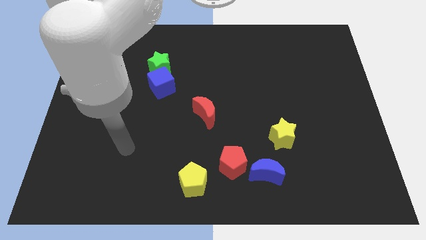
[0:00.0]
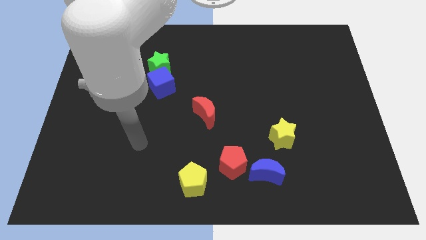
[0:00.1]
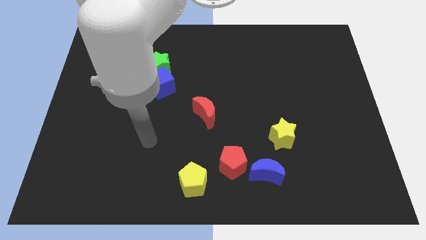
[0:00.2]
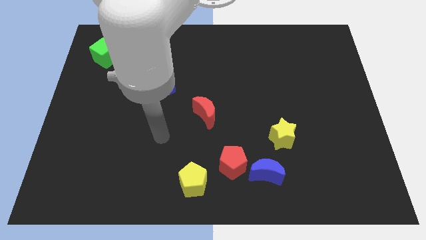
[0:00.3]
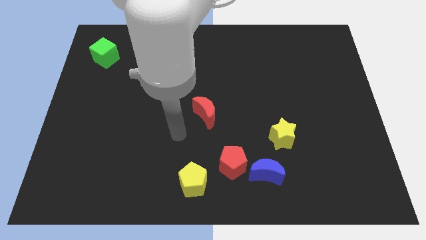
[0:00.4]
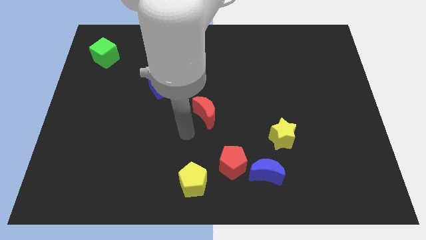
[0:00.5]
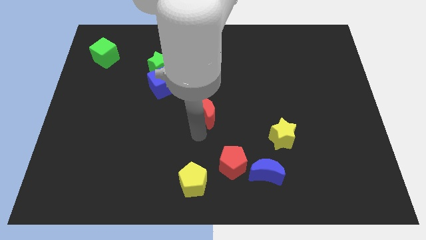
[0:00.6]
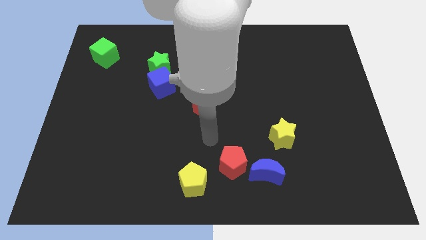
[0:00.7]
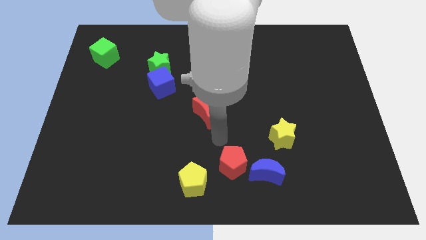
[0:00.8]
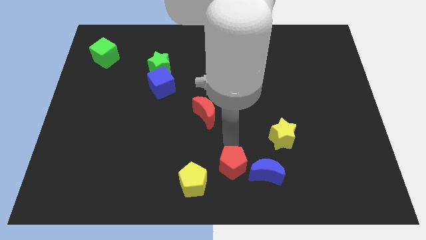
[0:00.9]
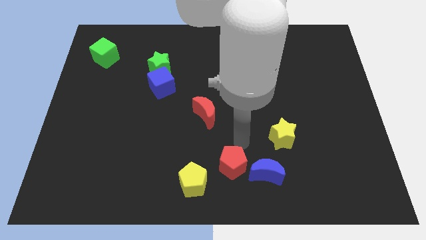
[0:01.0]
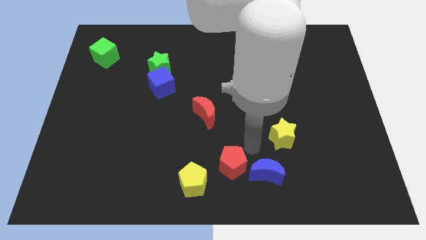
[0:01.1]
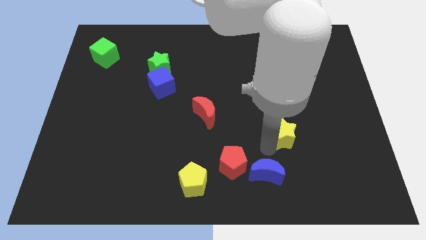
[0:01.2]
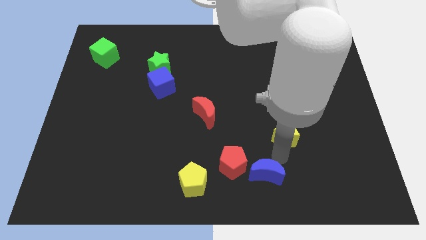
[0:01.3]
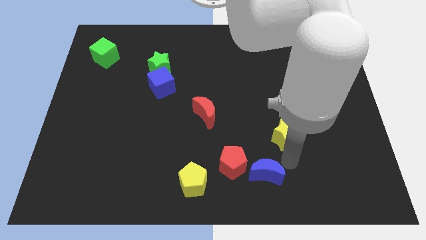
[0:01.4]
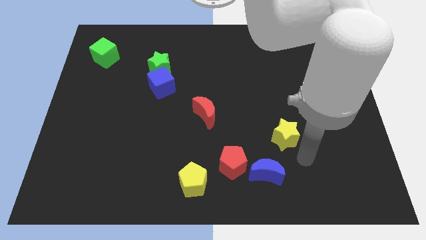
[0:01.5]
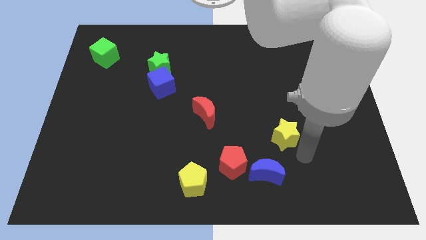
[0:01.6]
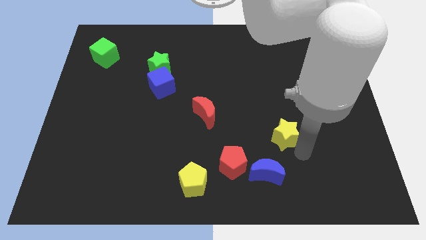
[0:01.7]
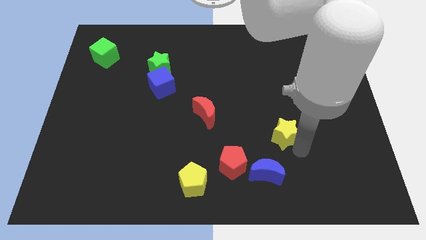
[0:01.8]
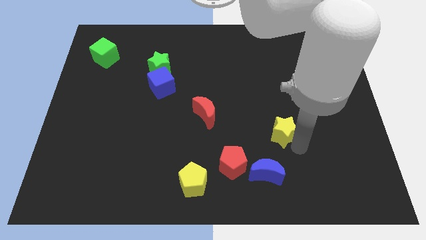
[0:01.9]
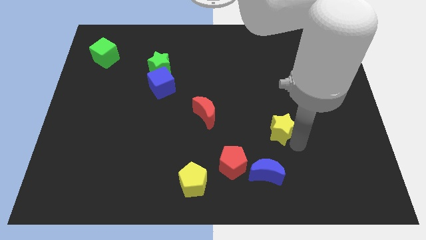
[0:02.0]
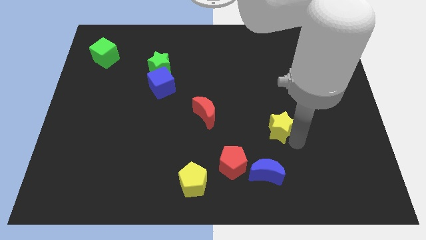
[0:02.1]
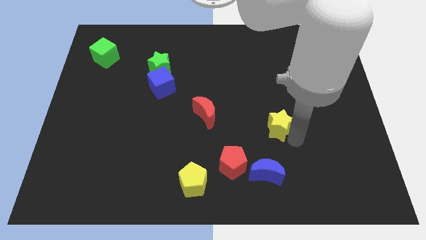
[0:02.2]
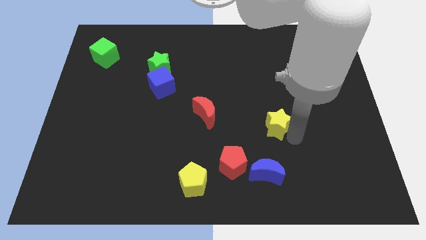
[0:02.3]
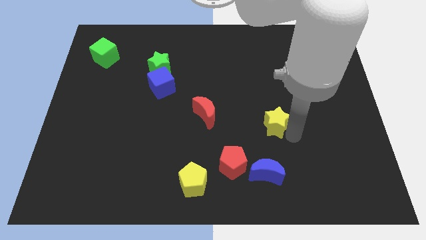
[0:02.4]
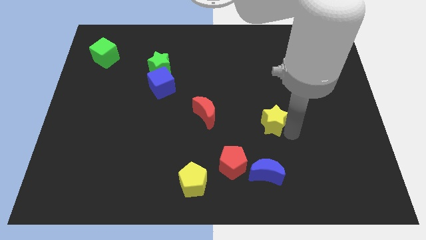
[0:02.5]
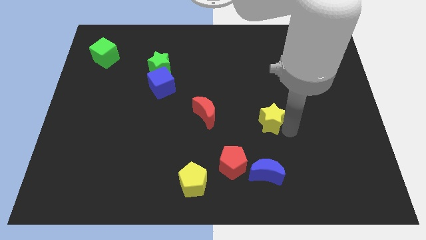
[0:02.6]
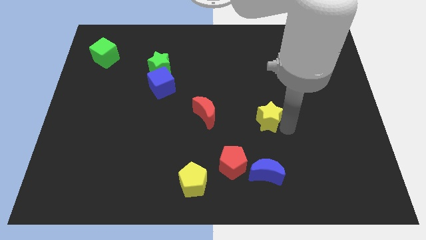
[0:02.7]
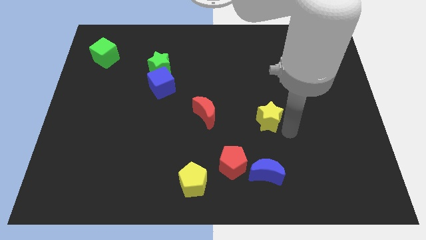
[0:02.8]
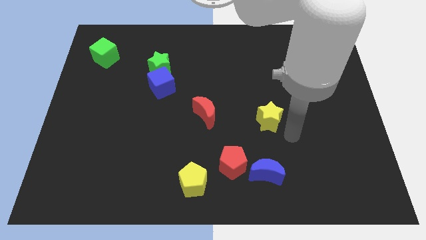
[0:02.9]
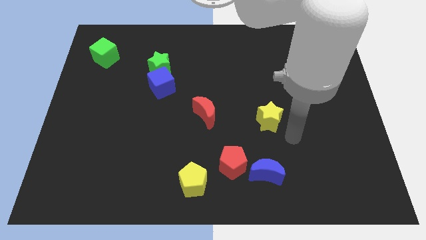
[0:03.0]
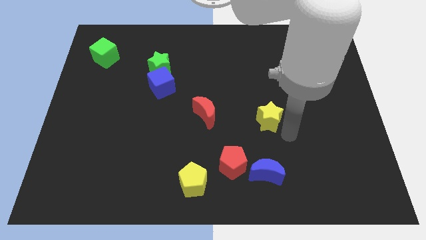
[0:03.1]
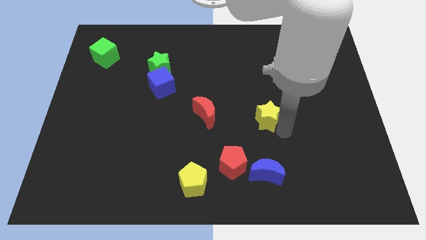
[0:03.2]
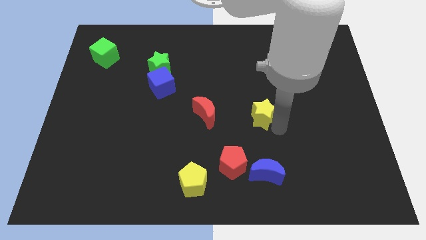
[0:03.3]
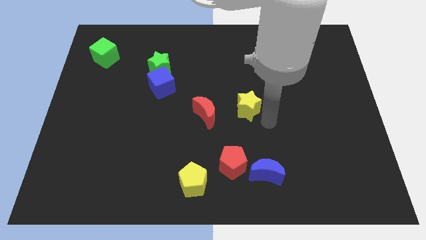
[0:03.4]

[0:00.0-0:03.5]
push the yellow star upwards and left diagonally a little bit

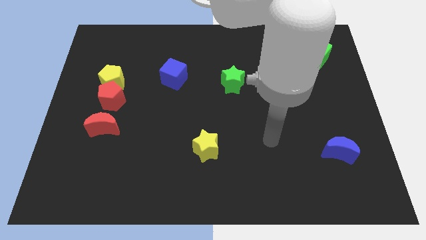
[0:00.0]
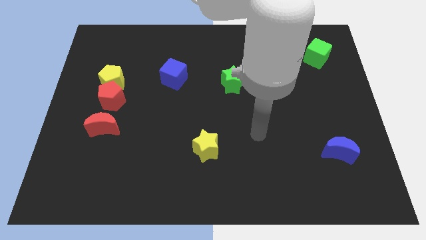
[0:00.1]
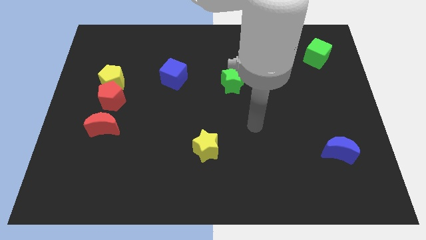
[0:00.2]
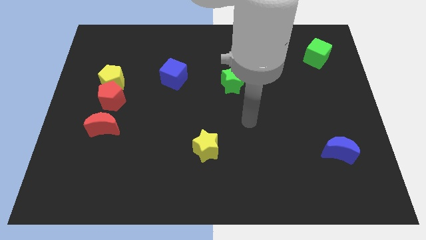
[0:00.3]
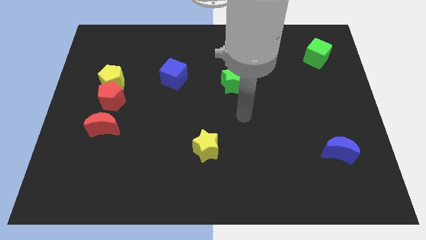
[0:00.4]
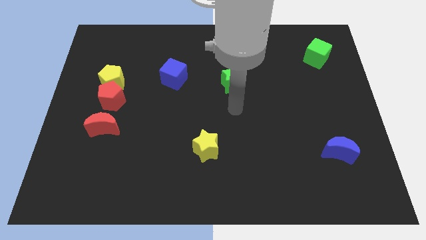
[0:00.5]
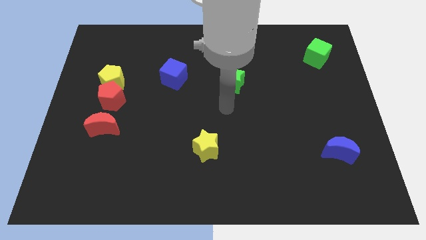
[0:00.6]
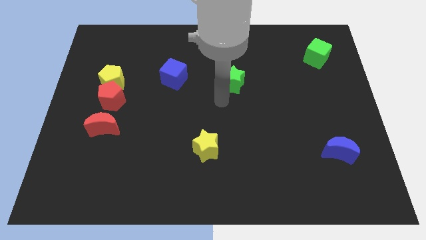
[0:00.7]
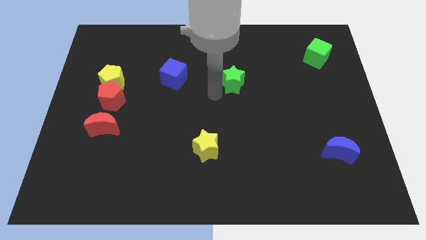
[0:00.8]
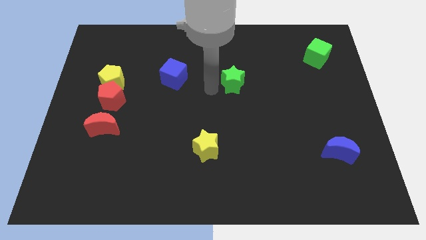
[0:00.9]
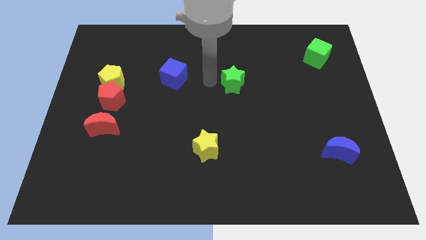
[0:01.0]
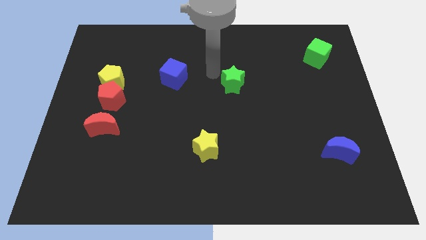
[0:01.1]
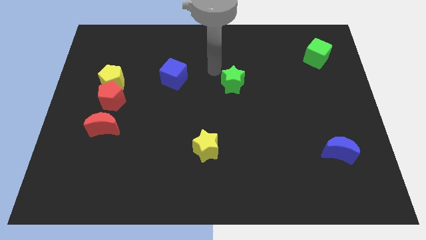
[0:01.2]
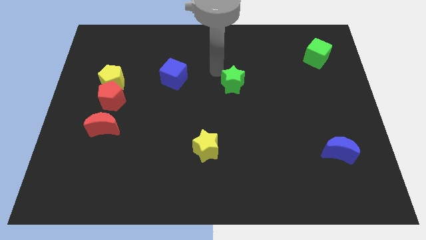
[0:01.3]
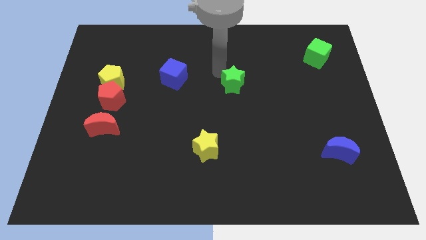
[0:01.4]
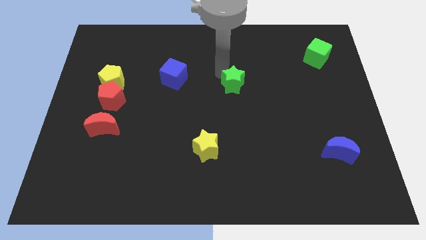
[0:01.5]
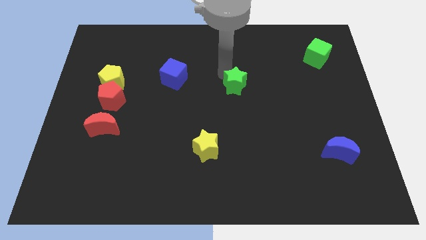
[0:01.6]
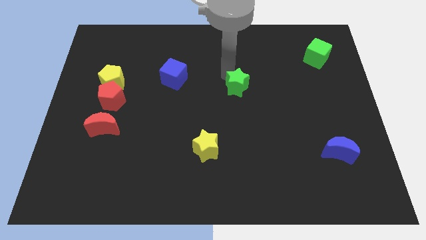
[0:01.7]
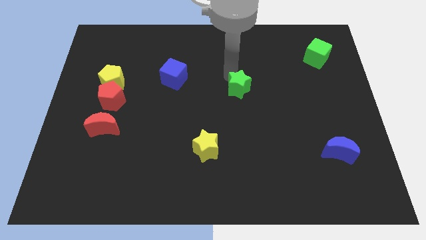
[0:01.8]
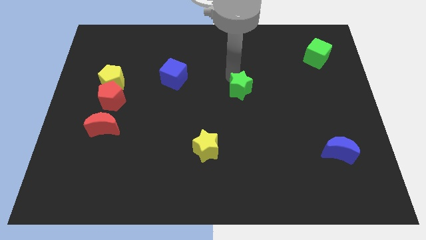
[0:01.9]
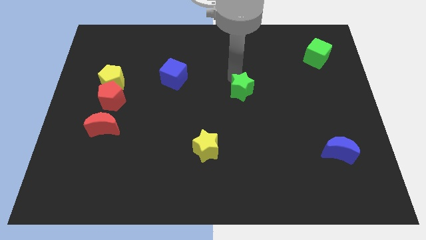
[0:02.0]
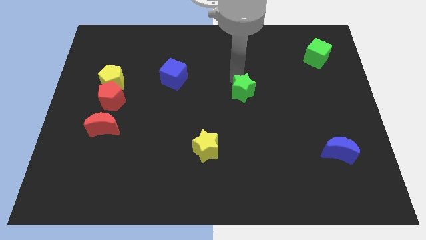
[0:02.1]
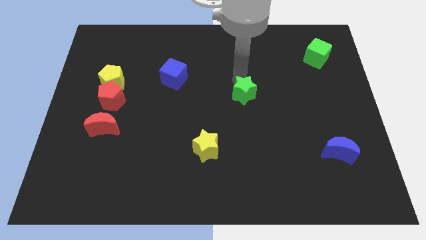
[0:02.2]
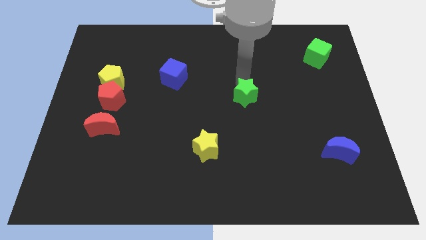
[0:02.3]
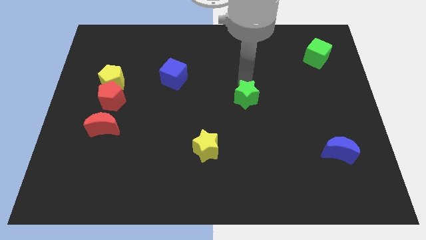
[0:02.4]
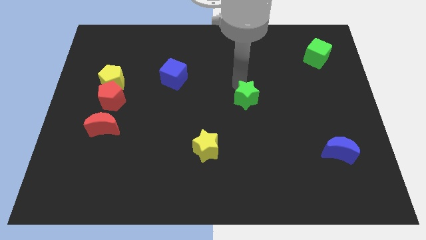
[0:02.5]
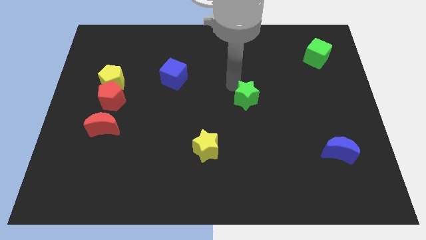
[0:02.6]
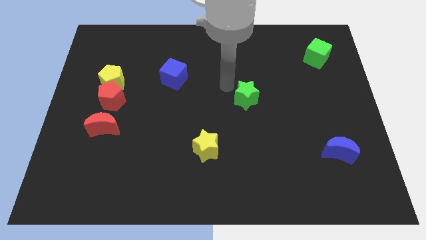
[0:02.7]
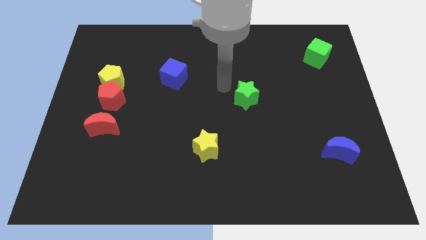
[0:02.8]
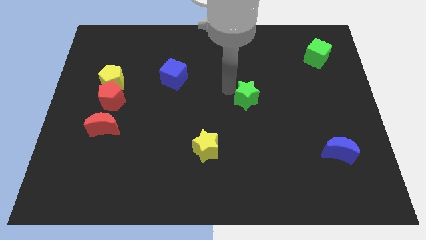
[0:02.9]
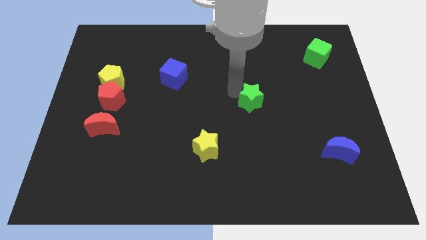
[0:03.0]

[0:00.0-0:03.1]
slightly slide the green star down and to the right

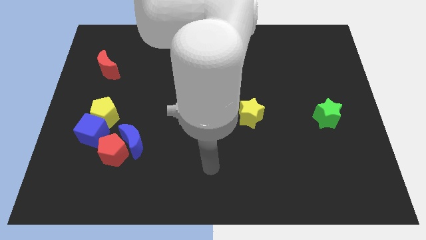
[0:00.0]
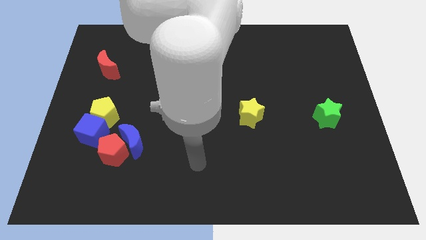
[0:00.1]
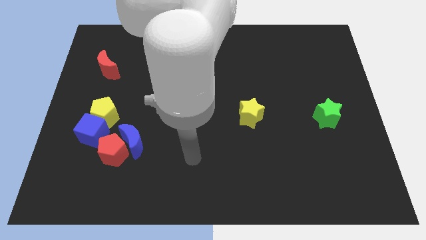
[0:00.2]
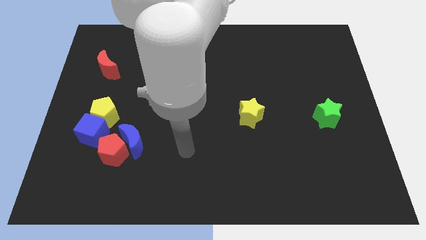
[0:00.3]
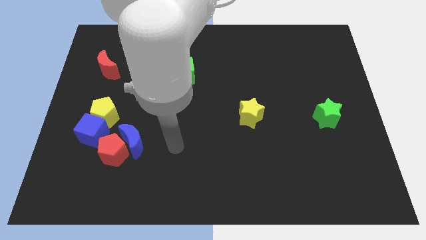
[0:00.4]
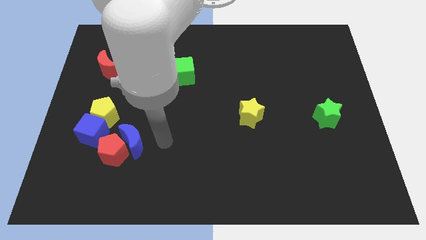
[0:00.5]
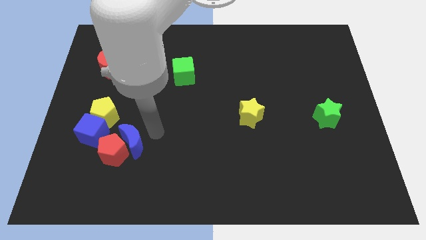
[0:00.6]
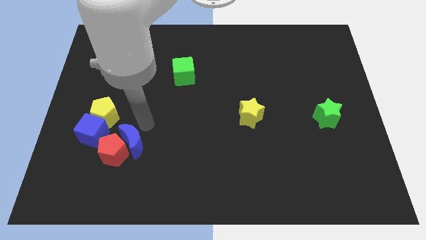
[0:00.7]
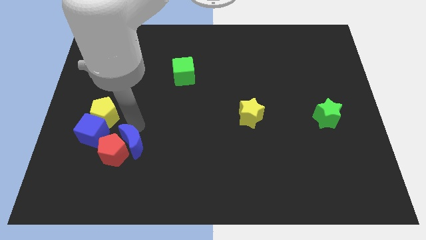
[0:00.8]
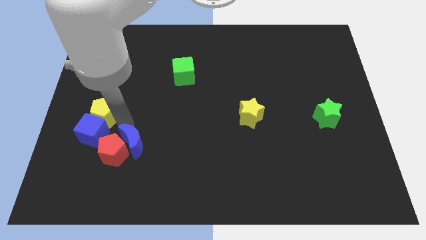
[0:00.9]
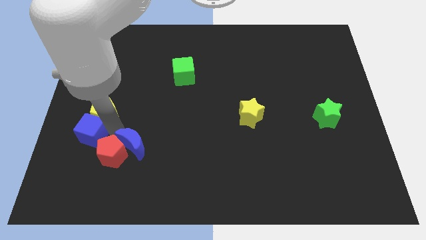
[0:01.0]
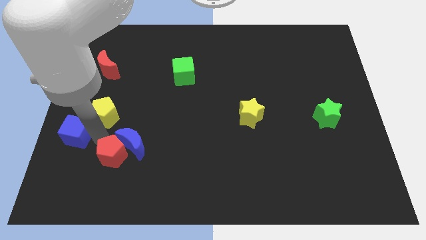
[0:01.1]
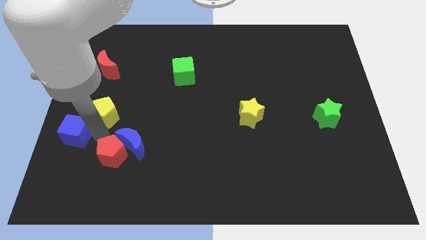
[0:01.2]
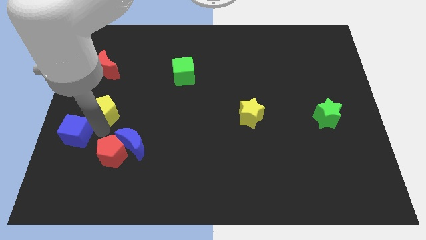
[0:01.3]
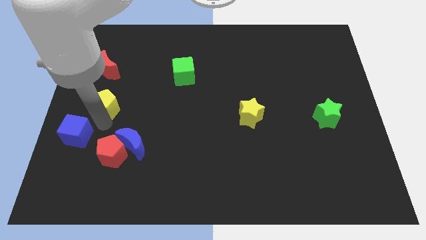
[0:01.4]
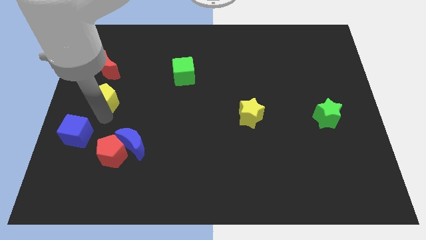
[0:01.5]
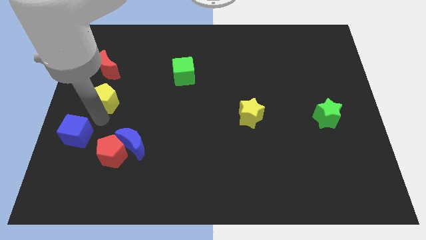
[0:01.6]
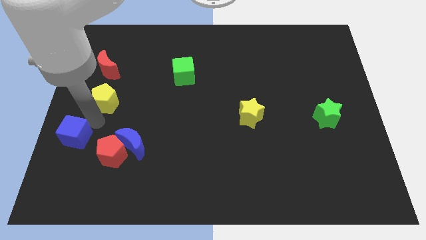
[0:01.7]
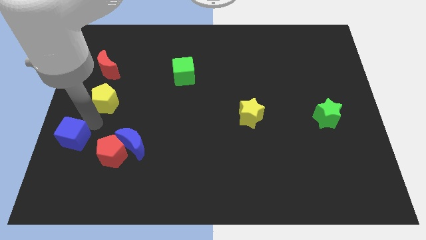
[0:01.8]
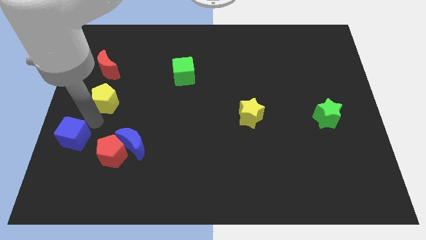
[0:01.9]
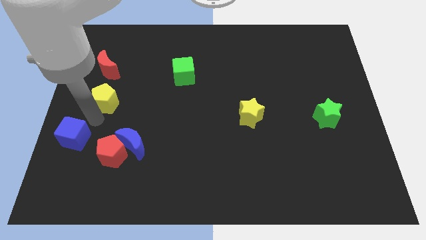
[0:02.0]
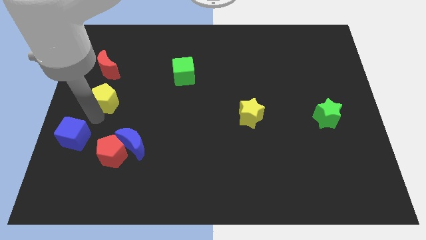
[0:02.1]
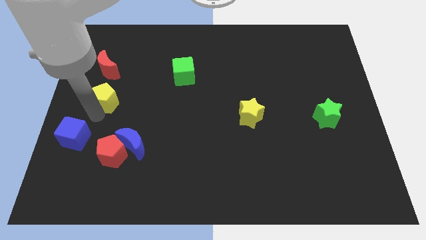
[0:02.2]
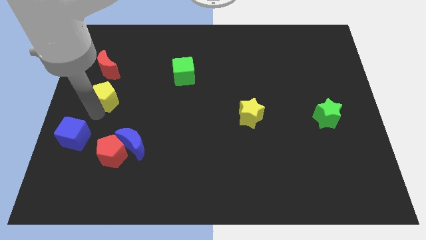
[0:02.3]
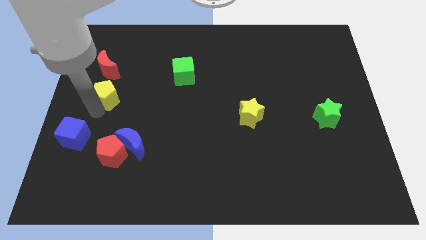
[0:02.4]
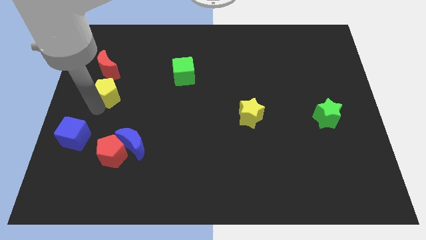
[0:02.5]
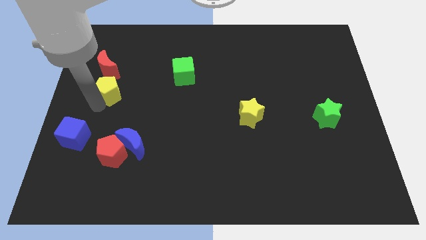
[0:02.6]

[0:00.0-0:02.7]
move the yellow pentagon a bit upwards
